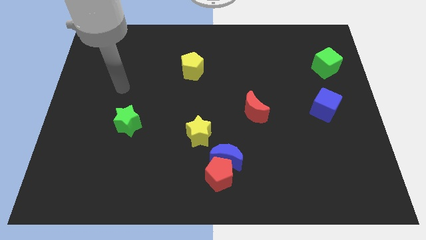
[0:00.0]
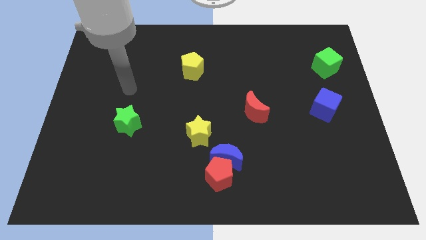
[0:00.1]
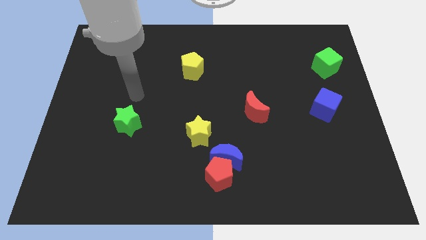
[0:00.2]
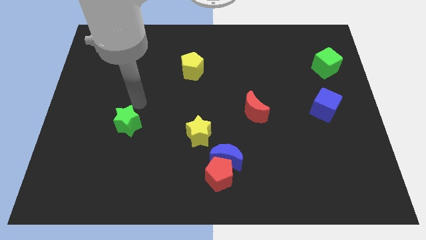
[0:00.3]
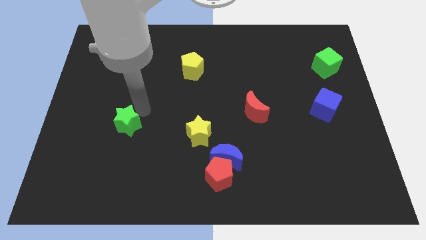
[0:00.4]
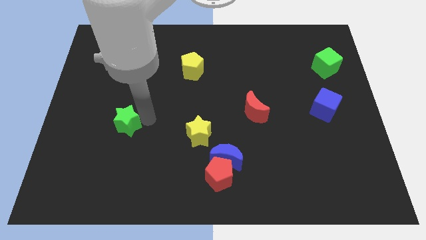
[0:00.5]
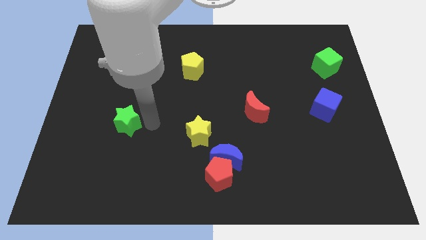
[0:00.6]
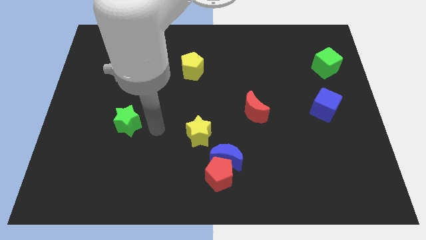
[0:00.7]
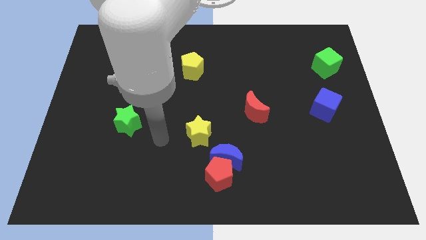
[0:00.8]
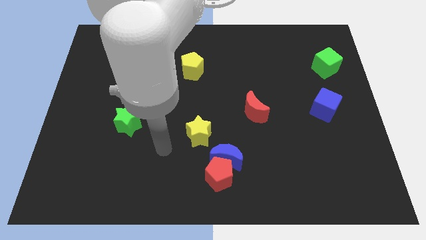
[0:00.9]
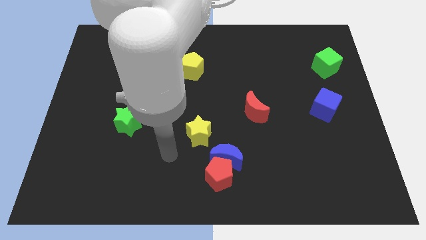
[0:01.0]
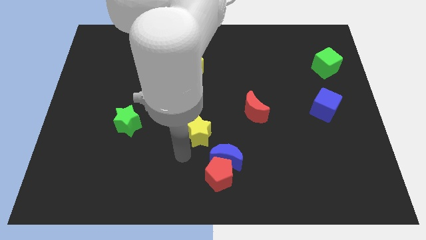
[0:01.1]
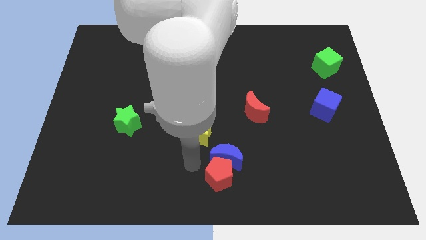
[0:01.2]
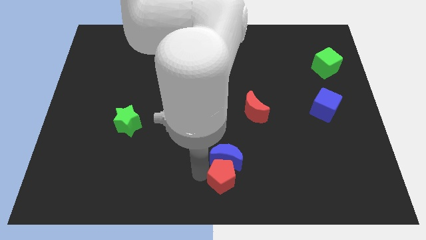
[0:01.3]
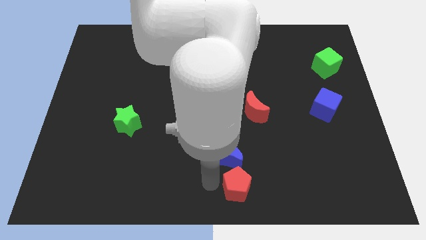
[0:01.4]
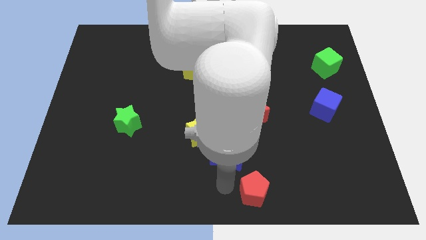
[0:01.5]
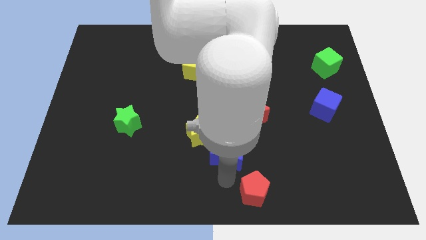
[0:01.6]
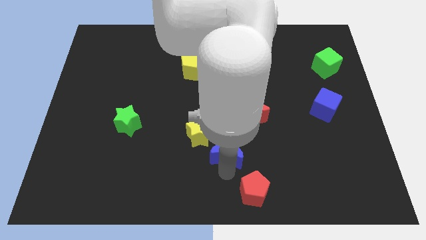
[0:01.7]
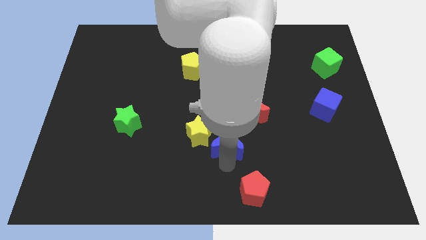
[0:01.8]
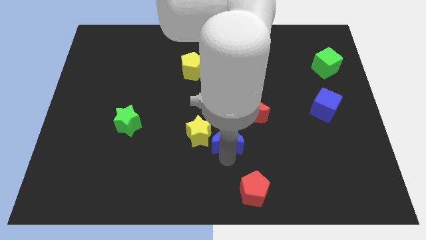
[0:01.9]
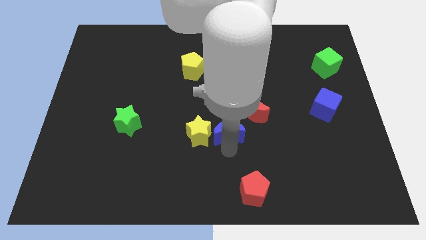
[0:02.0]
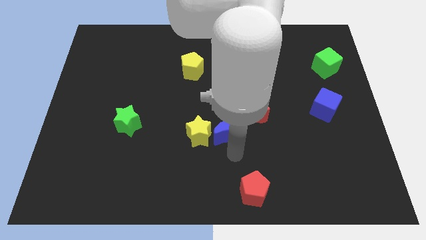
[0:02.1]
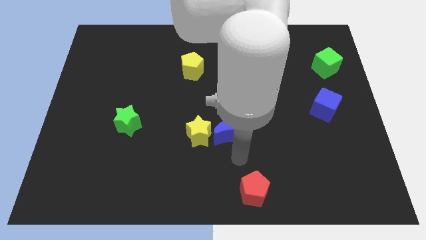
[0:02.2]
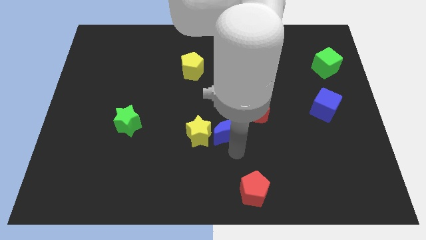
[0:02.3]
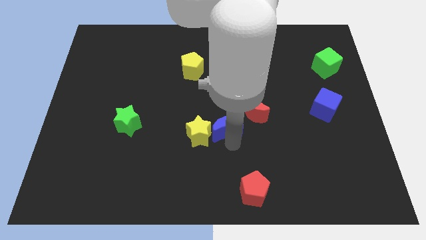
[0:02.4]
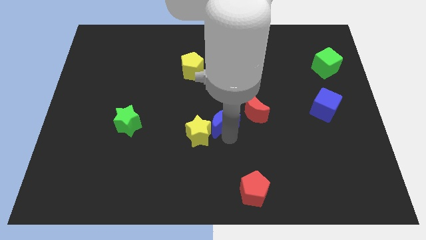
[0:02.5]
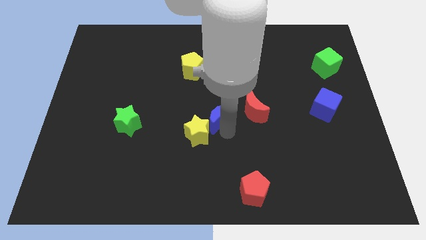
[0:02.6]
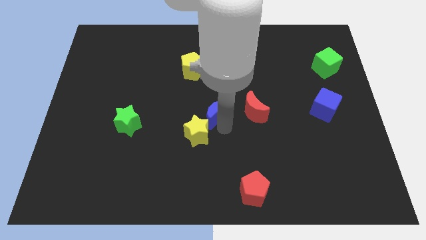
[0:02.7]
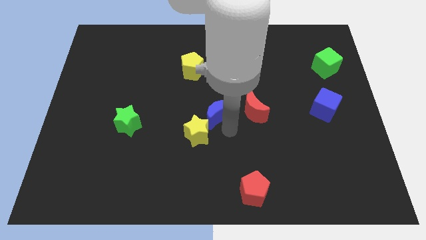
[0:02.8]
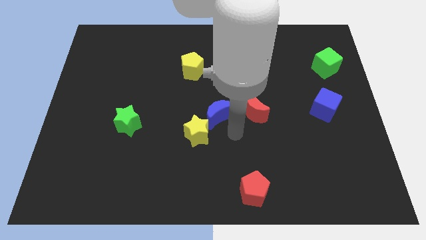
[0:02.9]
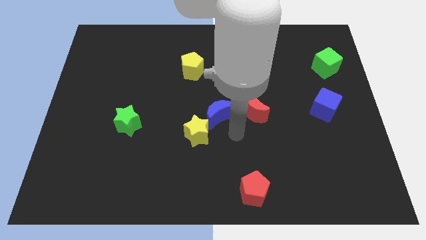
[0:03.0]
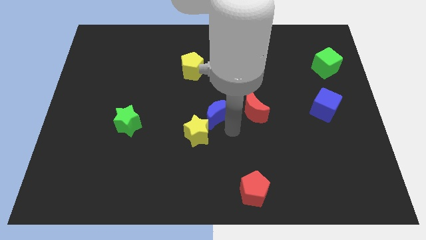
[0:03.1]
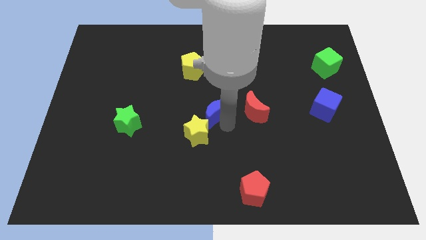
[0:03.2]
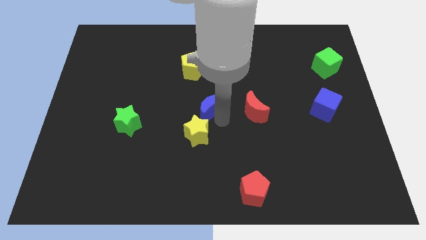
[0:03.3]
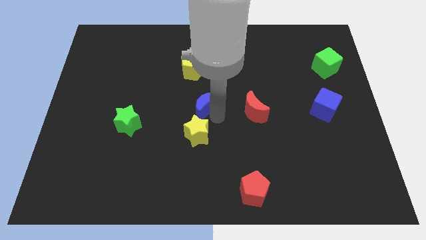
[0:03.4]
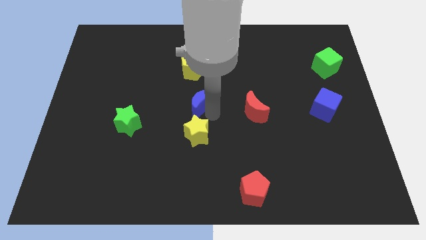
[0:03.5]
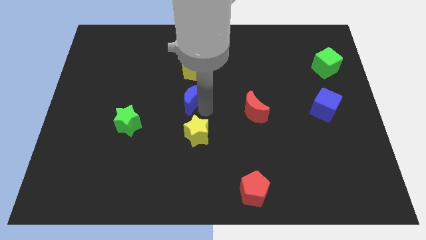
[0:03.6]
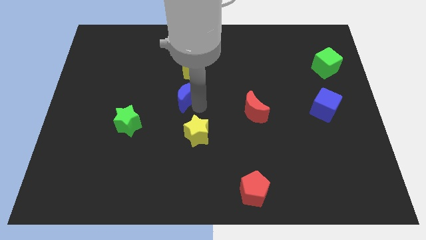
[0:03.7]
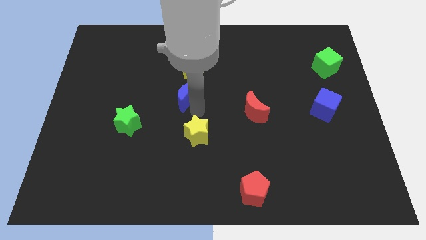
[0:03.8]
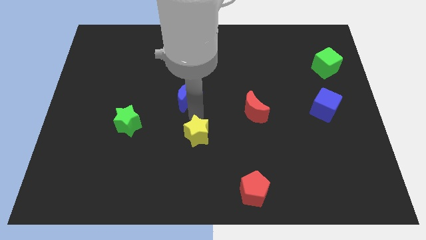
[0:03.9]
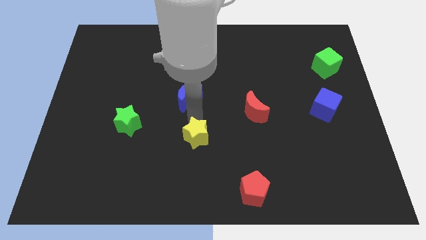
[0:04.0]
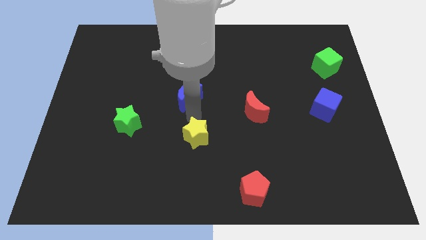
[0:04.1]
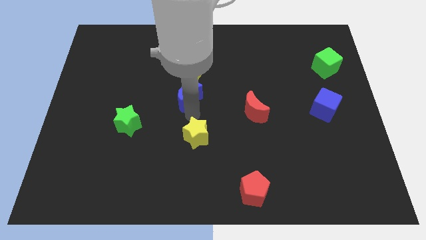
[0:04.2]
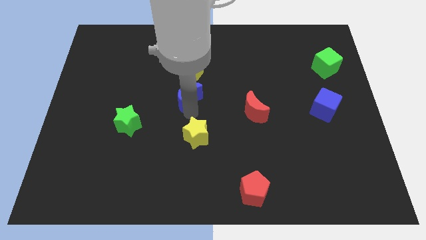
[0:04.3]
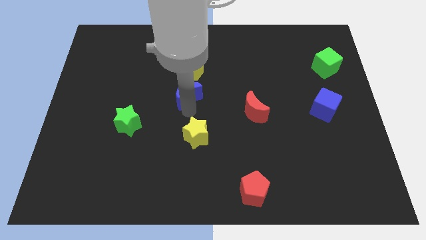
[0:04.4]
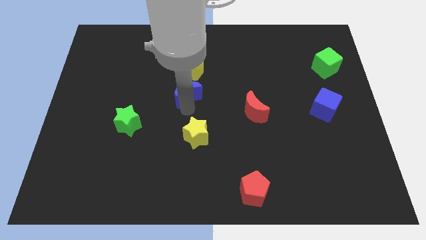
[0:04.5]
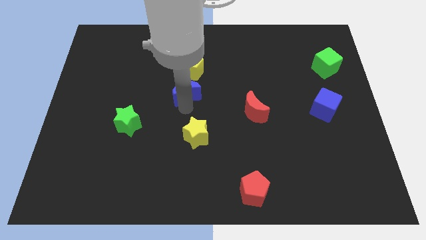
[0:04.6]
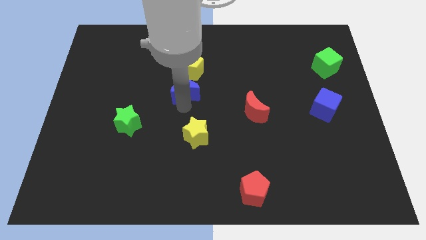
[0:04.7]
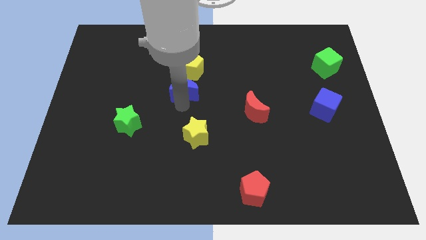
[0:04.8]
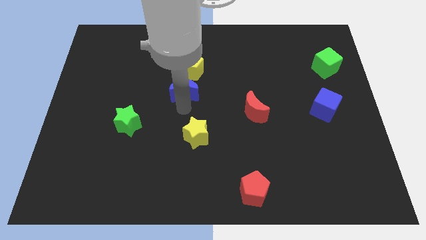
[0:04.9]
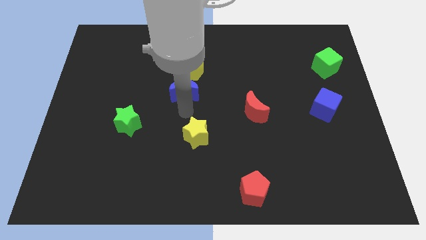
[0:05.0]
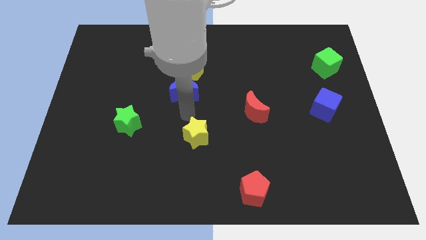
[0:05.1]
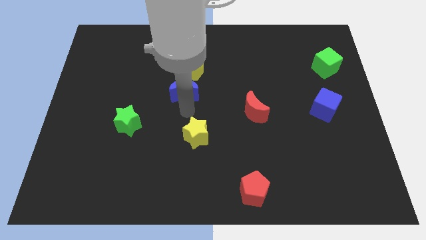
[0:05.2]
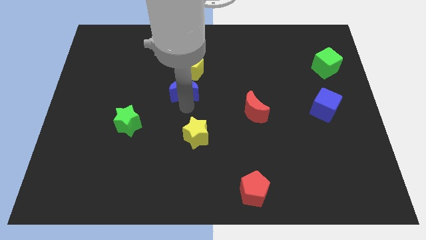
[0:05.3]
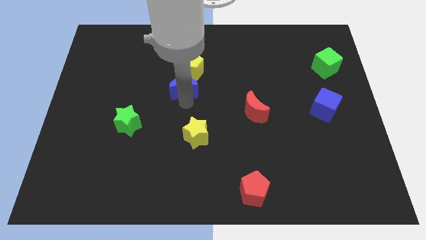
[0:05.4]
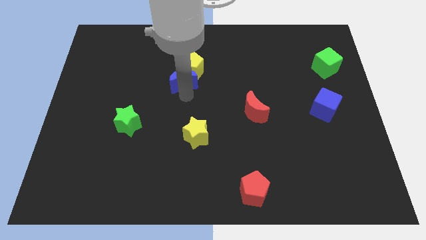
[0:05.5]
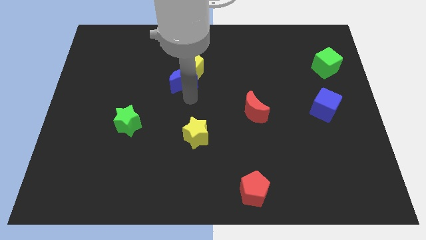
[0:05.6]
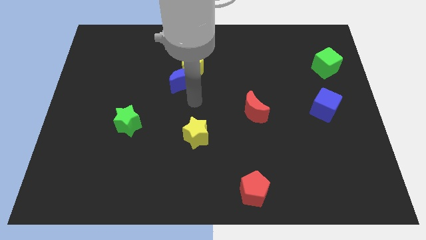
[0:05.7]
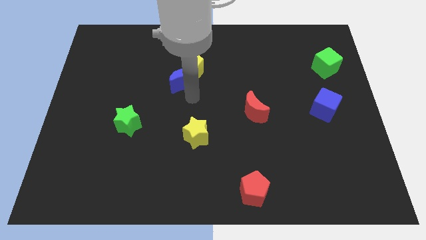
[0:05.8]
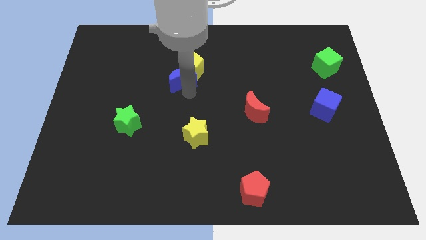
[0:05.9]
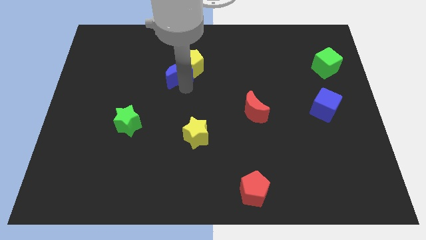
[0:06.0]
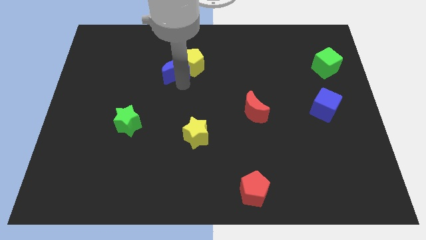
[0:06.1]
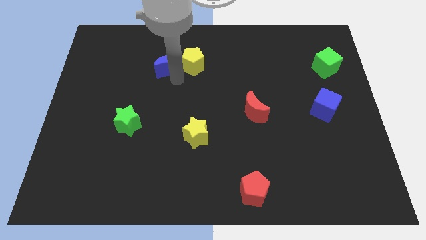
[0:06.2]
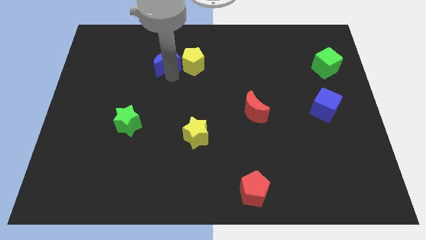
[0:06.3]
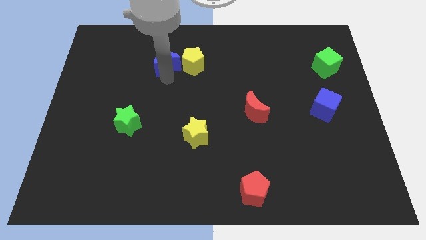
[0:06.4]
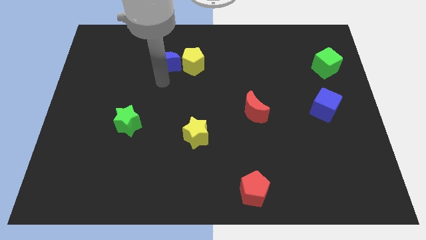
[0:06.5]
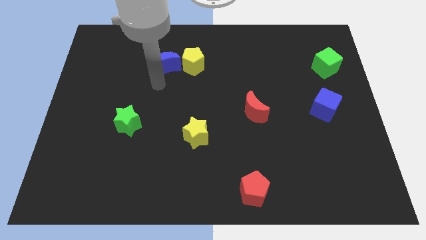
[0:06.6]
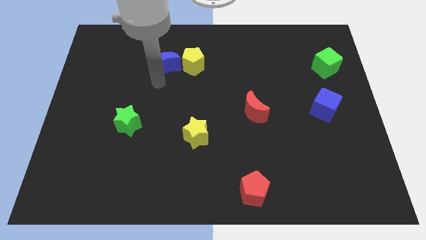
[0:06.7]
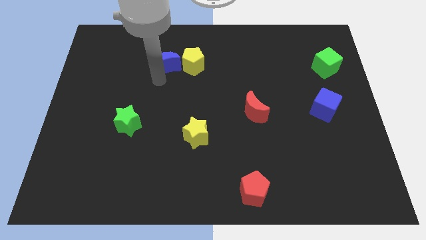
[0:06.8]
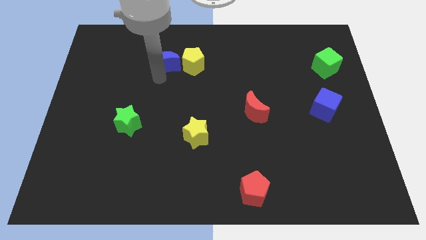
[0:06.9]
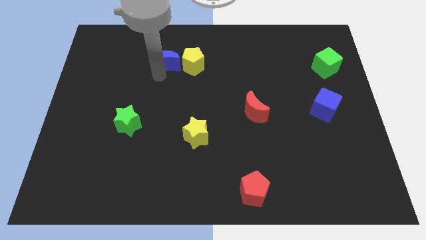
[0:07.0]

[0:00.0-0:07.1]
push the blue moon to the top left side of the yellow pentagon

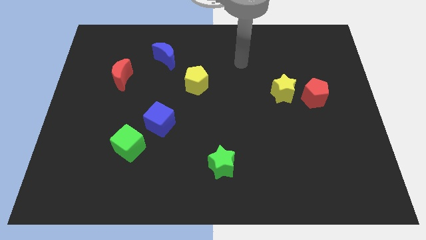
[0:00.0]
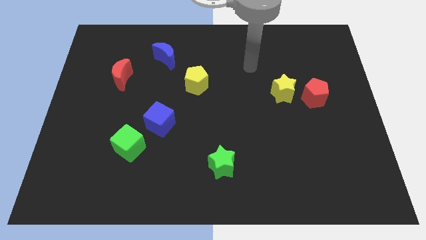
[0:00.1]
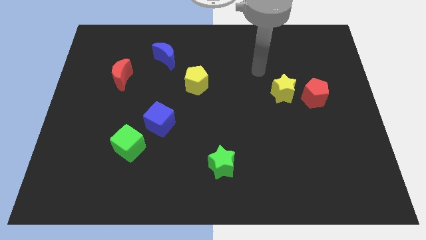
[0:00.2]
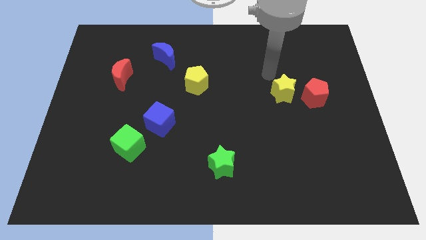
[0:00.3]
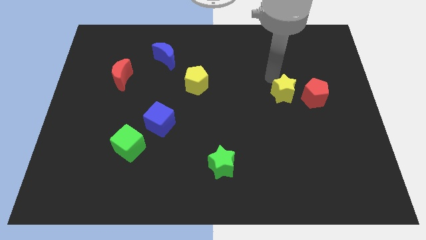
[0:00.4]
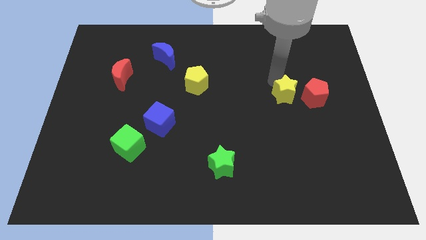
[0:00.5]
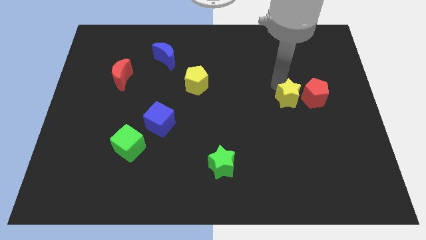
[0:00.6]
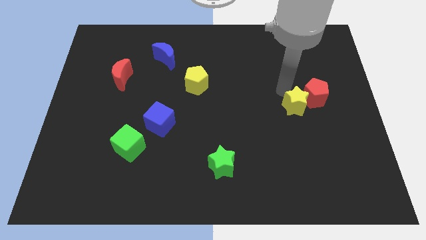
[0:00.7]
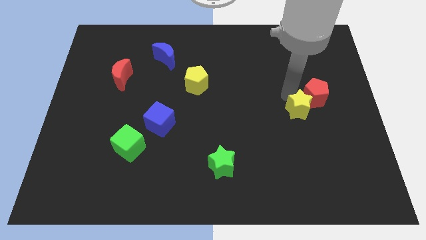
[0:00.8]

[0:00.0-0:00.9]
put the yellow star to the bottom side of the red pentagon
